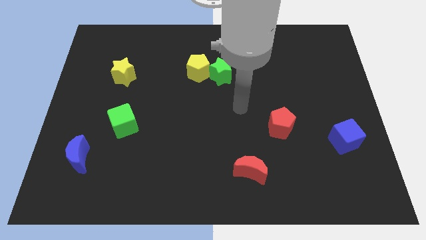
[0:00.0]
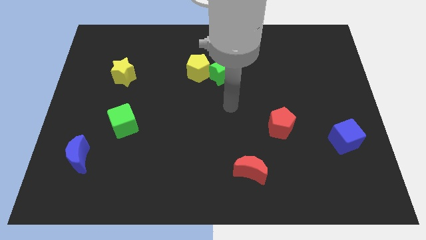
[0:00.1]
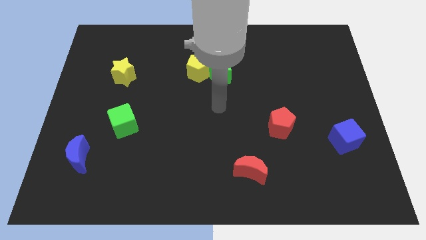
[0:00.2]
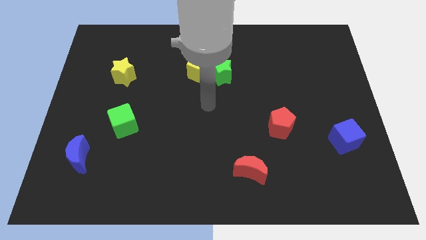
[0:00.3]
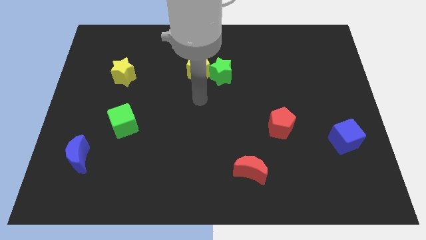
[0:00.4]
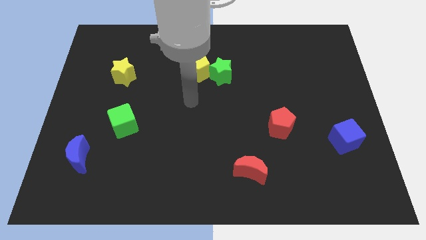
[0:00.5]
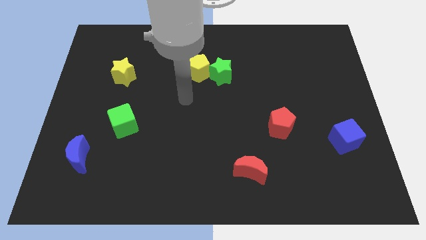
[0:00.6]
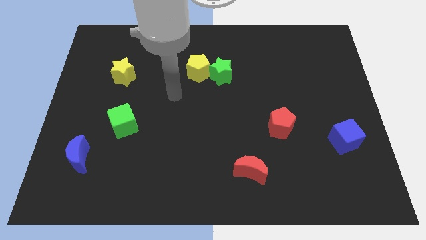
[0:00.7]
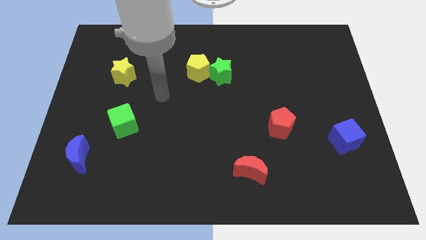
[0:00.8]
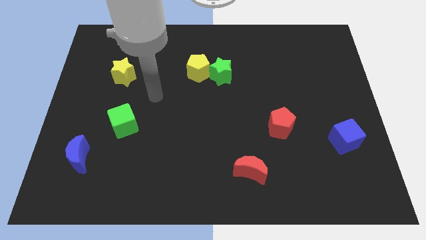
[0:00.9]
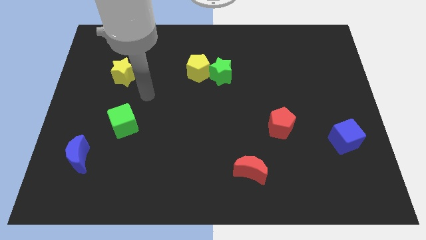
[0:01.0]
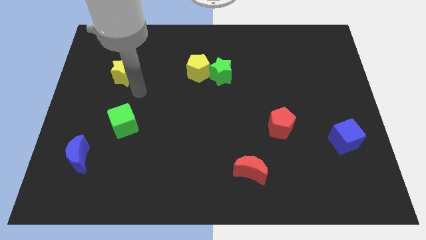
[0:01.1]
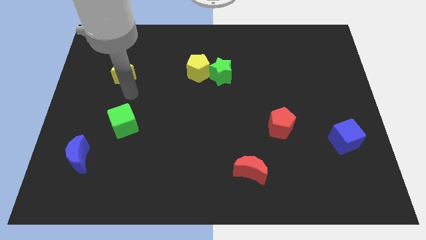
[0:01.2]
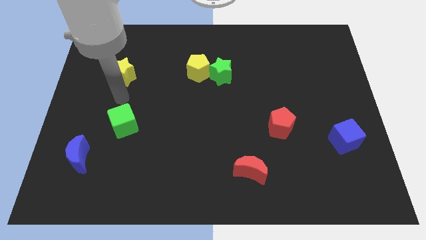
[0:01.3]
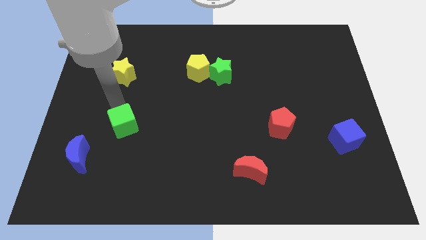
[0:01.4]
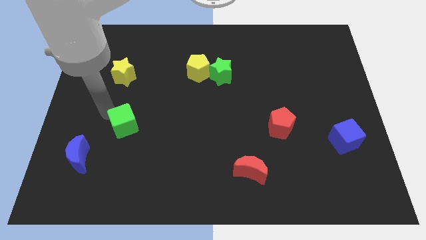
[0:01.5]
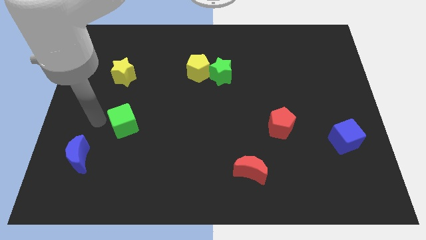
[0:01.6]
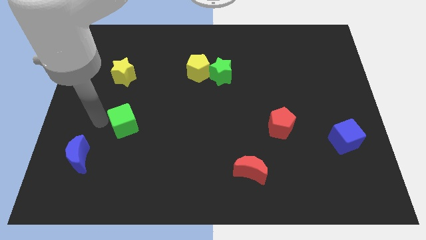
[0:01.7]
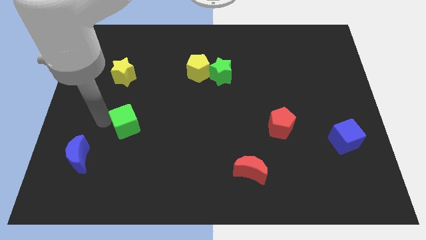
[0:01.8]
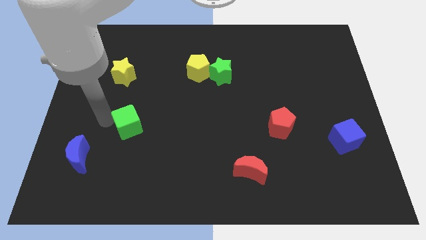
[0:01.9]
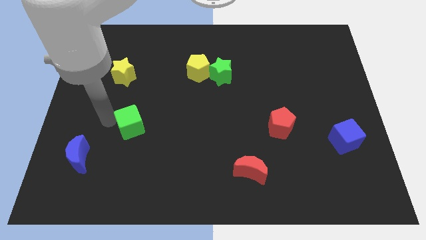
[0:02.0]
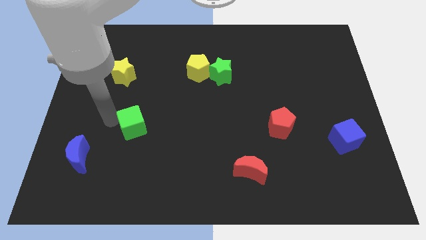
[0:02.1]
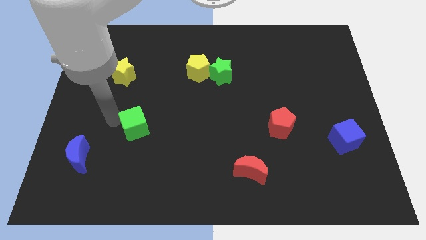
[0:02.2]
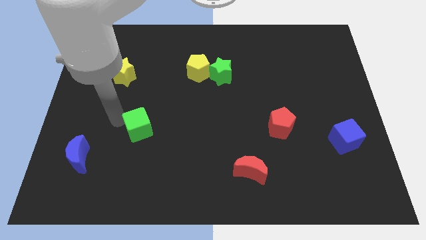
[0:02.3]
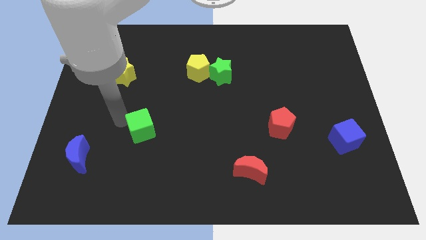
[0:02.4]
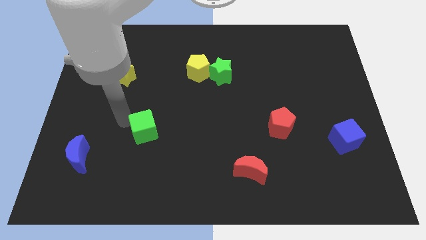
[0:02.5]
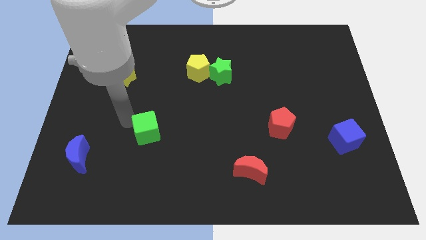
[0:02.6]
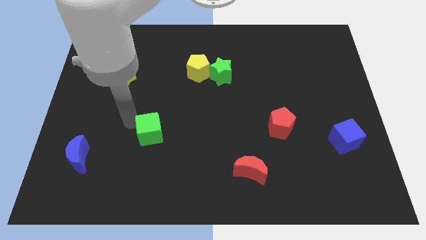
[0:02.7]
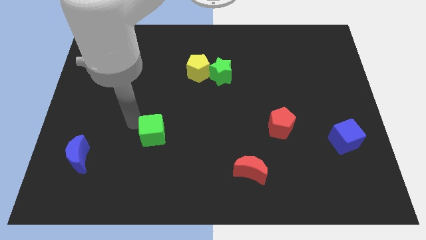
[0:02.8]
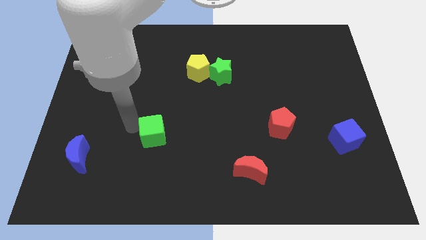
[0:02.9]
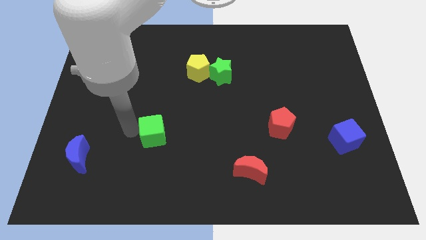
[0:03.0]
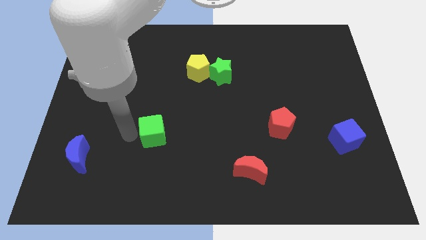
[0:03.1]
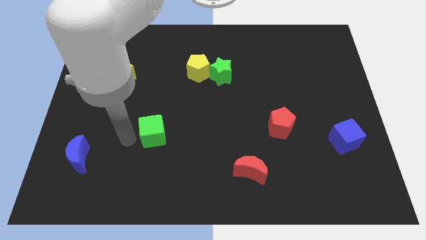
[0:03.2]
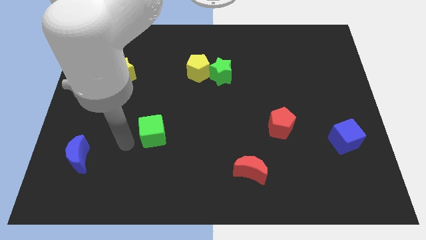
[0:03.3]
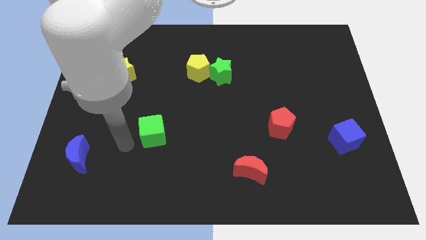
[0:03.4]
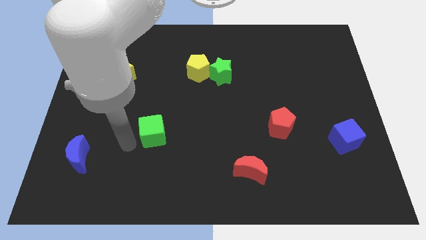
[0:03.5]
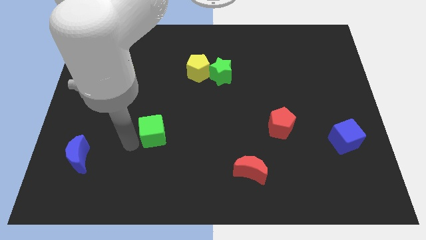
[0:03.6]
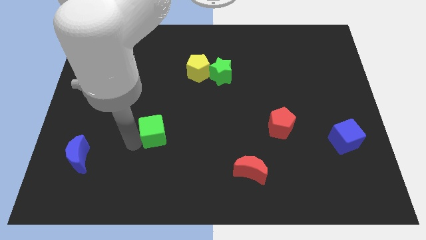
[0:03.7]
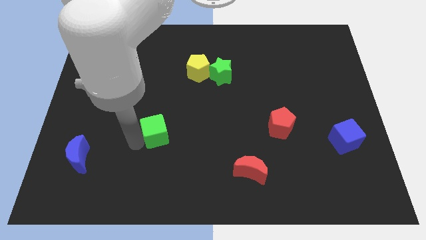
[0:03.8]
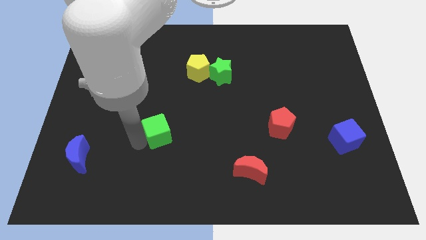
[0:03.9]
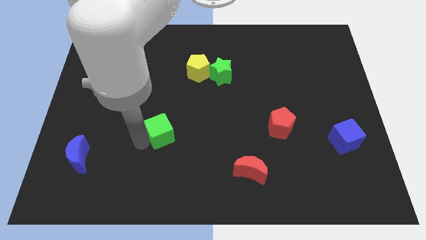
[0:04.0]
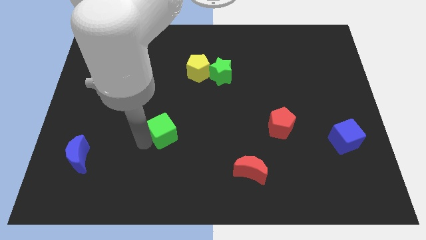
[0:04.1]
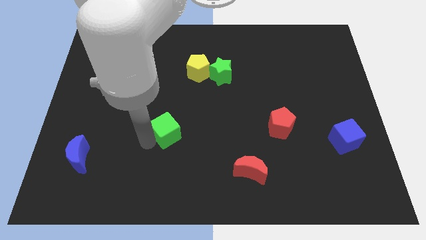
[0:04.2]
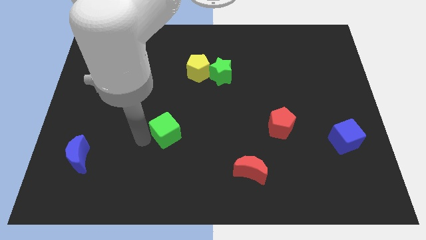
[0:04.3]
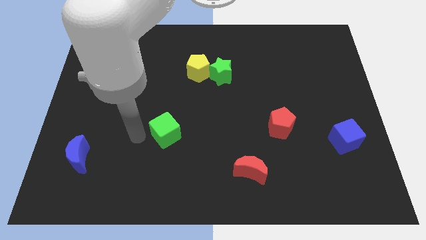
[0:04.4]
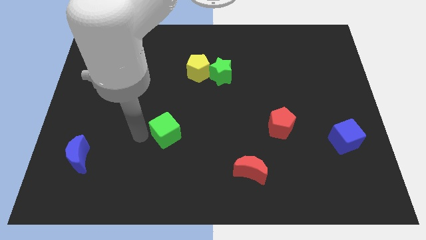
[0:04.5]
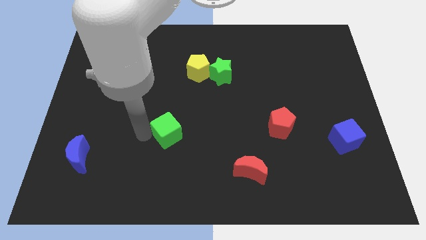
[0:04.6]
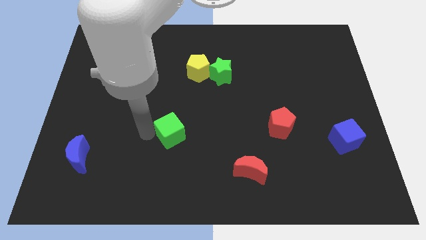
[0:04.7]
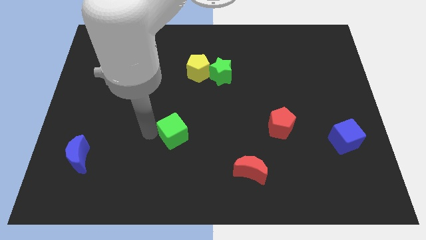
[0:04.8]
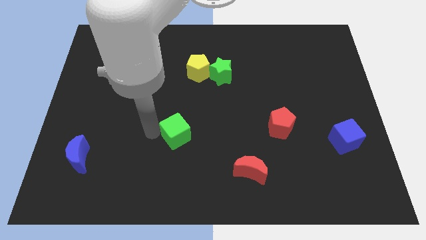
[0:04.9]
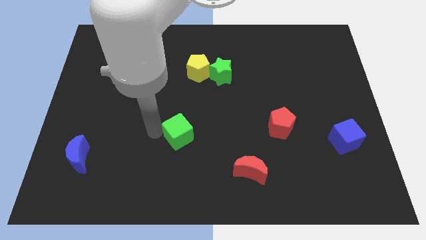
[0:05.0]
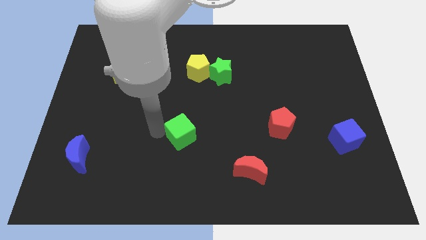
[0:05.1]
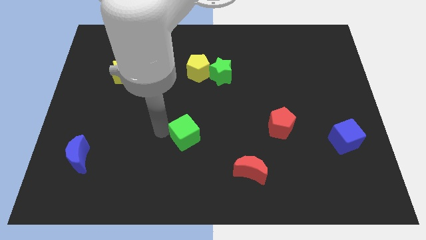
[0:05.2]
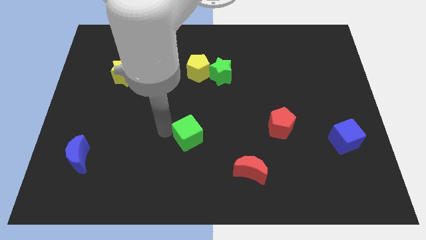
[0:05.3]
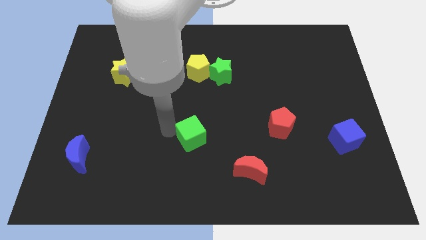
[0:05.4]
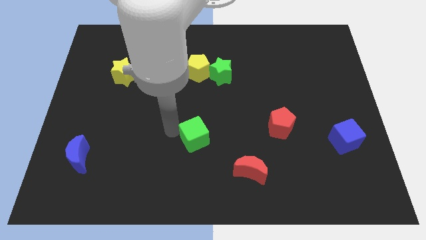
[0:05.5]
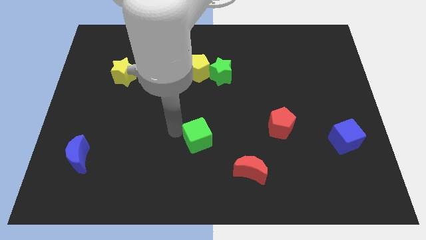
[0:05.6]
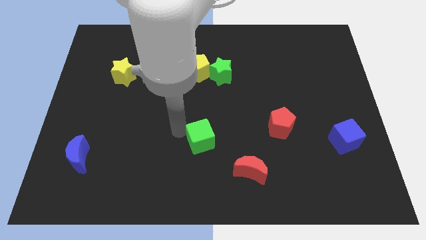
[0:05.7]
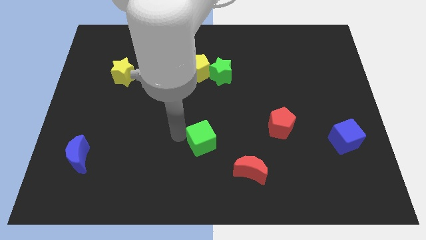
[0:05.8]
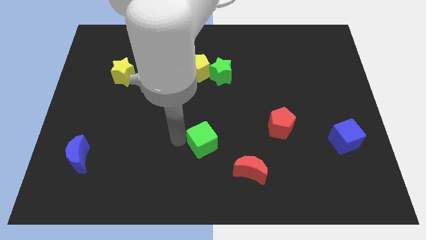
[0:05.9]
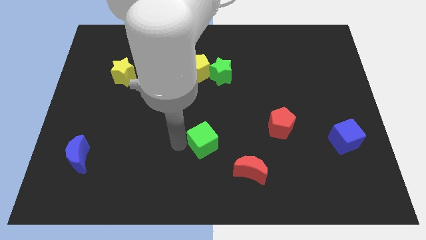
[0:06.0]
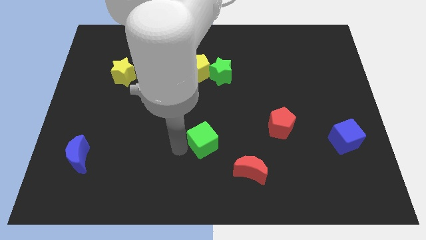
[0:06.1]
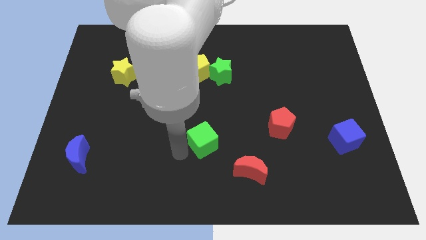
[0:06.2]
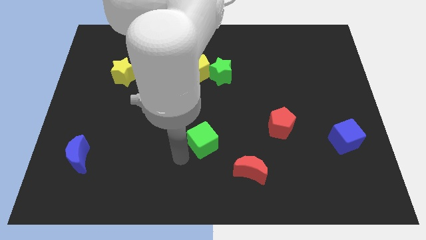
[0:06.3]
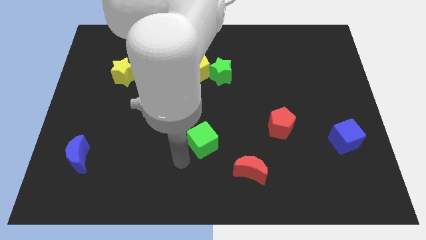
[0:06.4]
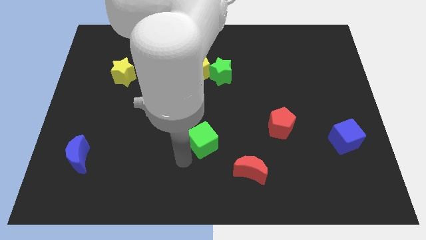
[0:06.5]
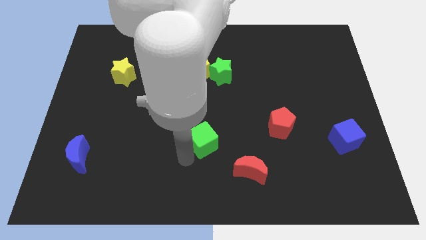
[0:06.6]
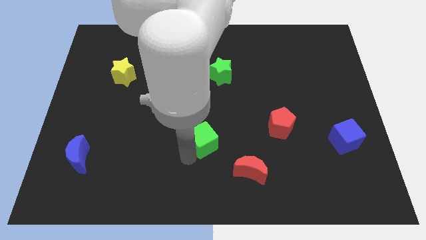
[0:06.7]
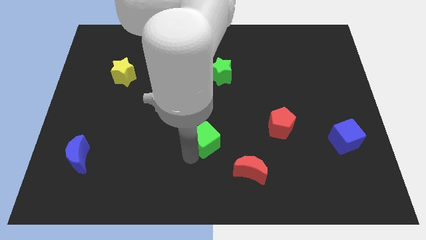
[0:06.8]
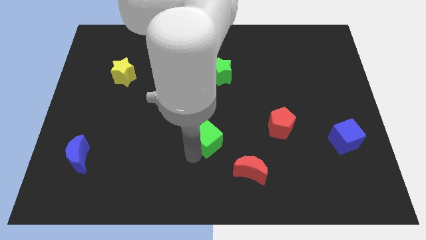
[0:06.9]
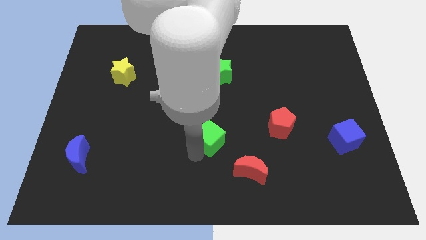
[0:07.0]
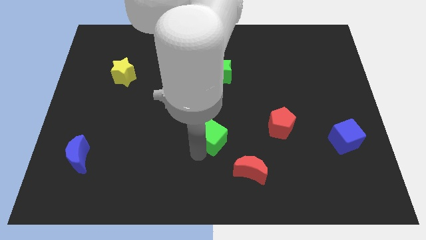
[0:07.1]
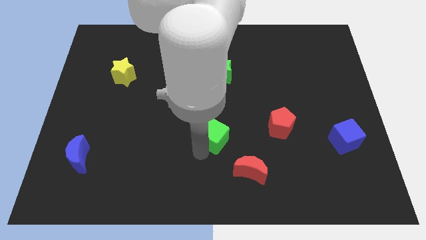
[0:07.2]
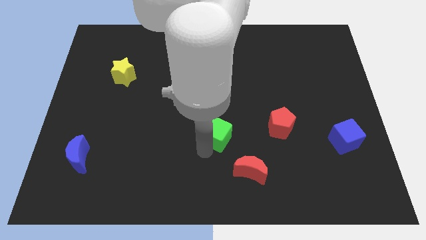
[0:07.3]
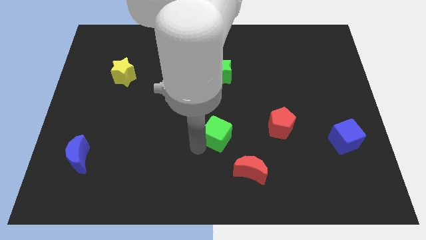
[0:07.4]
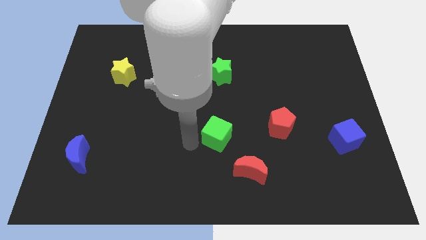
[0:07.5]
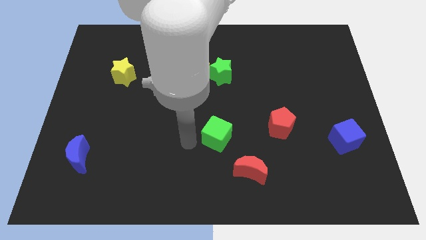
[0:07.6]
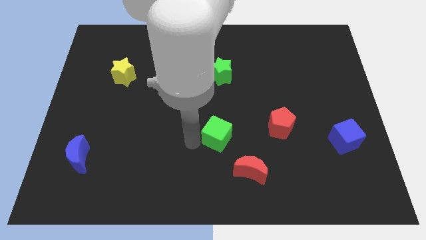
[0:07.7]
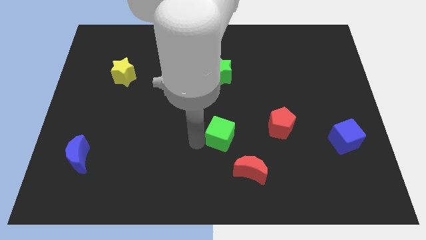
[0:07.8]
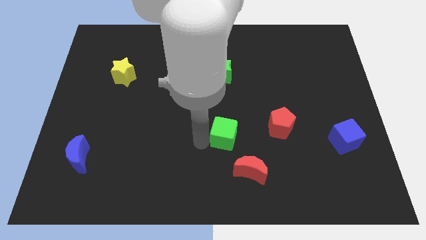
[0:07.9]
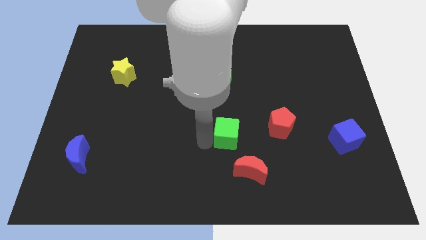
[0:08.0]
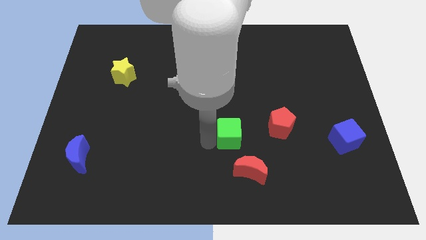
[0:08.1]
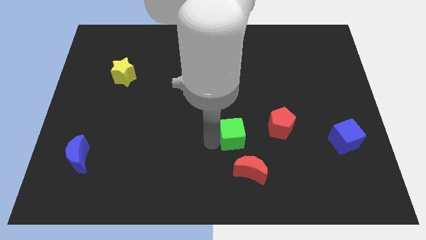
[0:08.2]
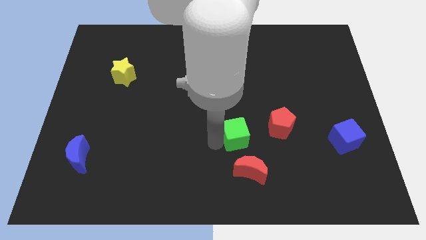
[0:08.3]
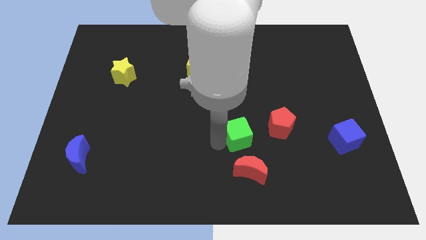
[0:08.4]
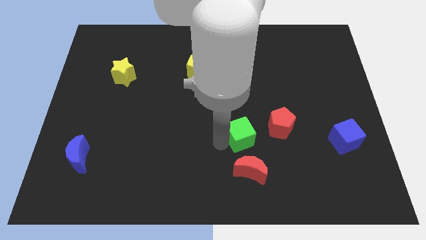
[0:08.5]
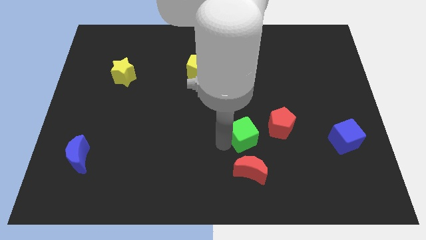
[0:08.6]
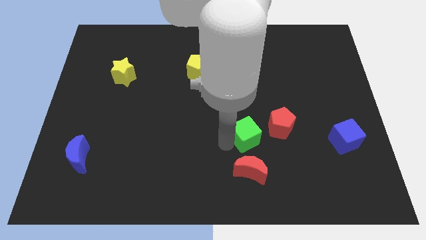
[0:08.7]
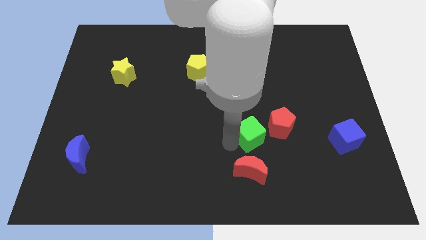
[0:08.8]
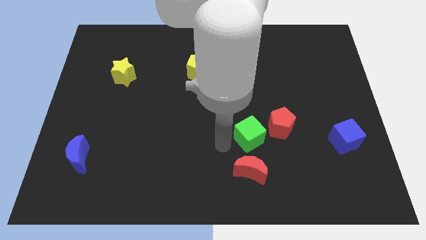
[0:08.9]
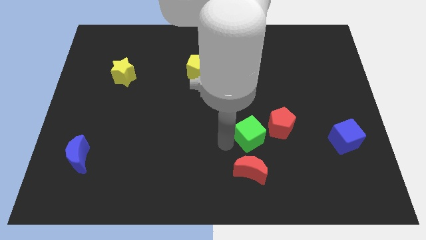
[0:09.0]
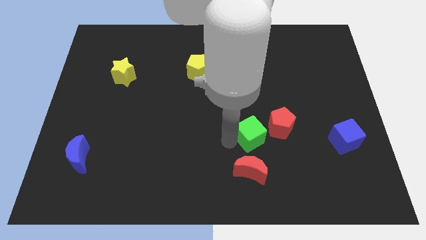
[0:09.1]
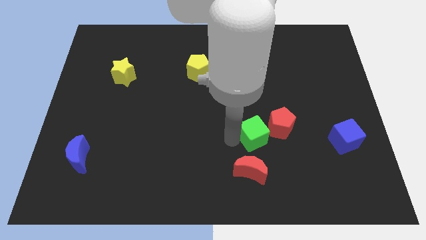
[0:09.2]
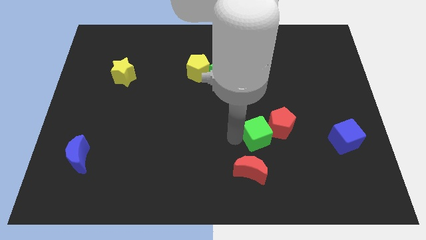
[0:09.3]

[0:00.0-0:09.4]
put the green cube close to the red pentagon
